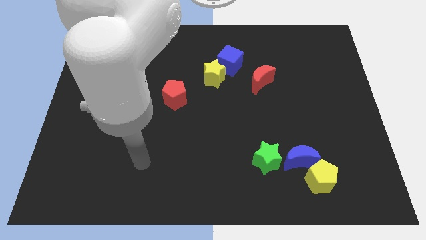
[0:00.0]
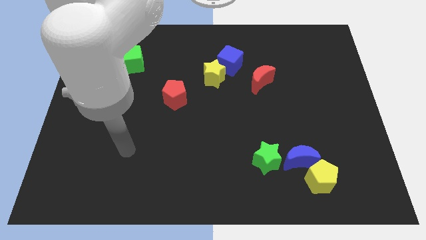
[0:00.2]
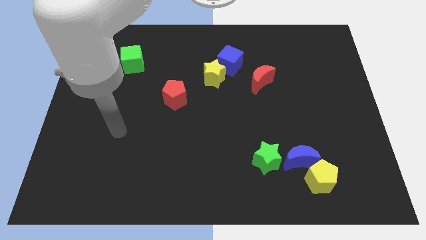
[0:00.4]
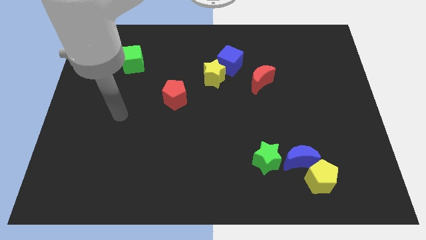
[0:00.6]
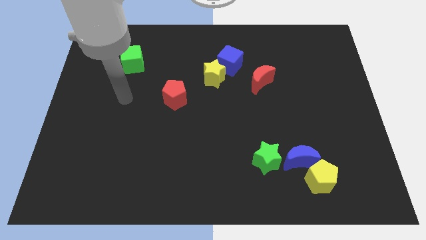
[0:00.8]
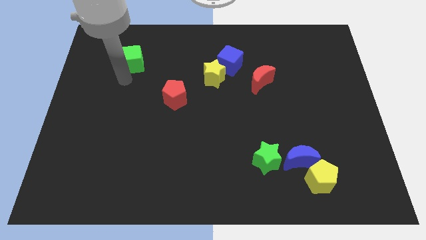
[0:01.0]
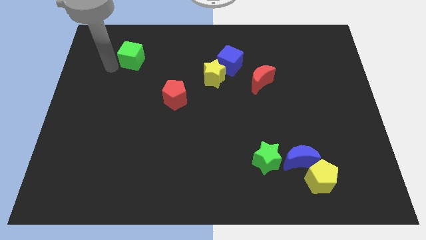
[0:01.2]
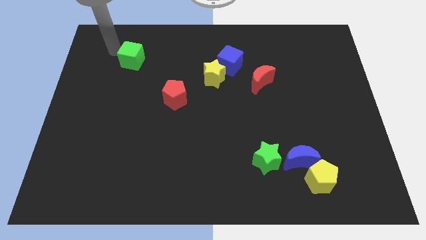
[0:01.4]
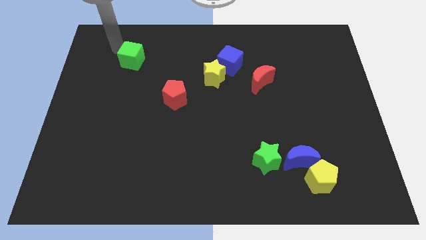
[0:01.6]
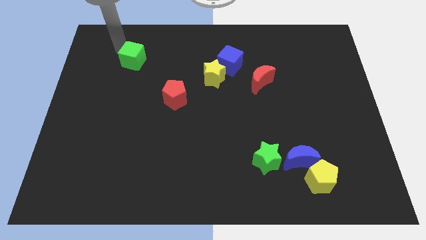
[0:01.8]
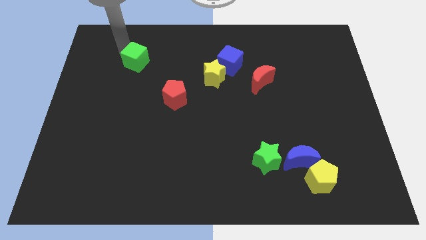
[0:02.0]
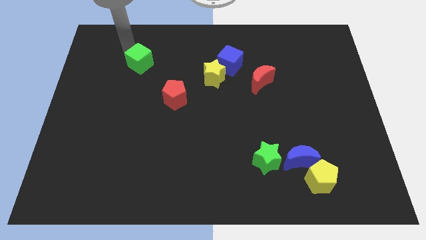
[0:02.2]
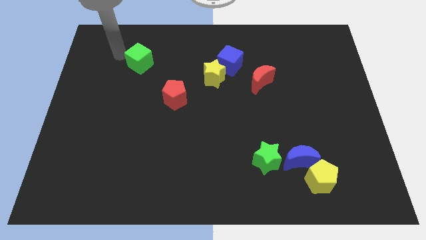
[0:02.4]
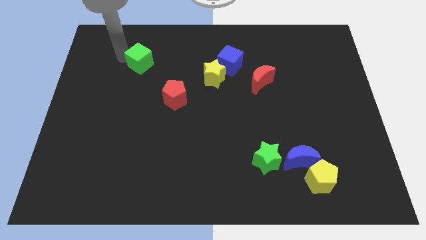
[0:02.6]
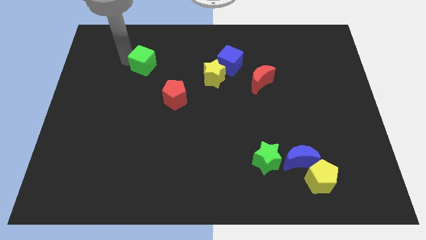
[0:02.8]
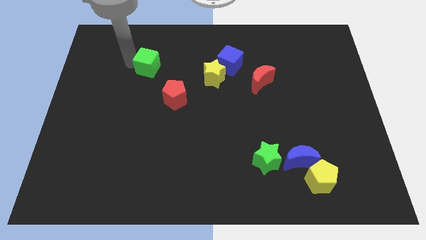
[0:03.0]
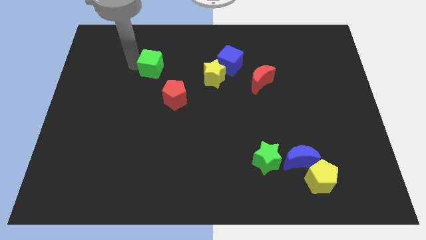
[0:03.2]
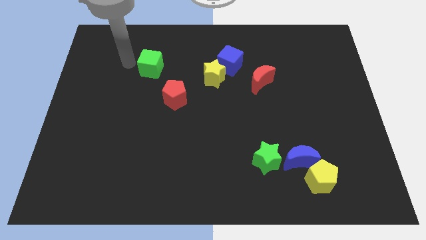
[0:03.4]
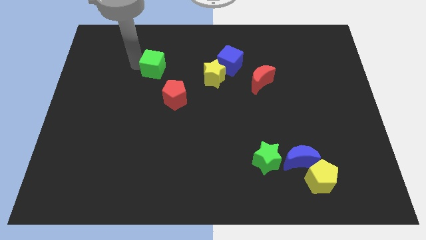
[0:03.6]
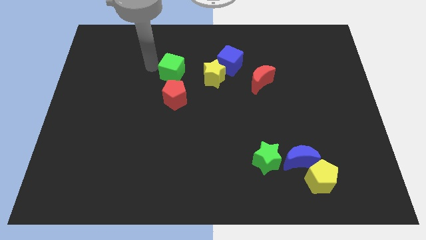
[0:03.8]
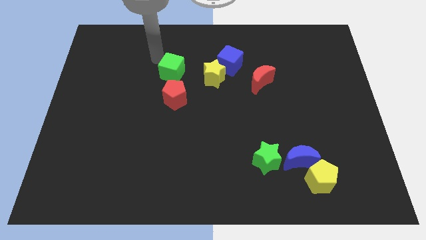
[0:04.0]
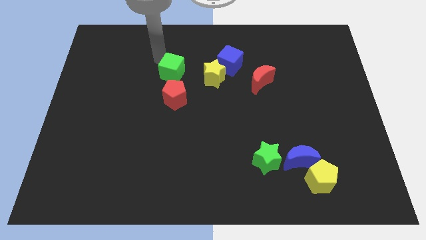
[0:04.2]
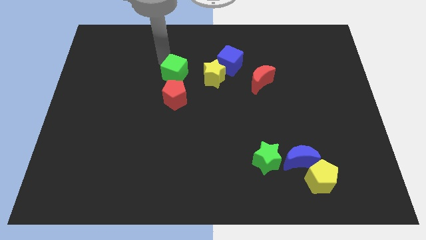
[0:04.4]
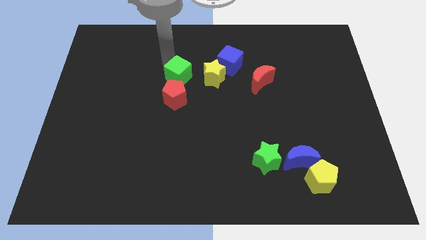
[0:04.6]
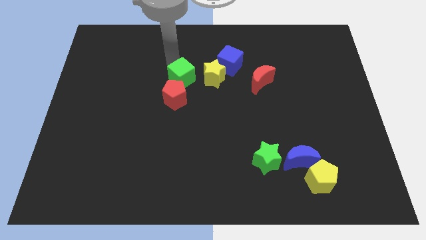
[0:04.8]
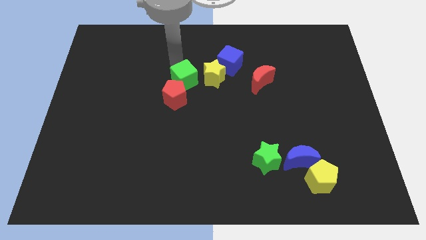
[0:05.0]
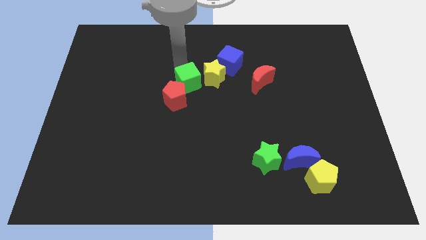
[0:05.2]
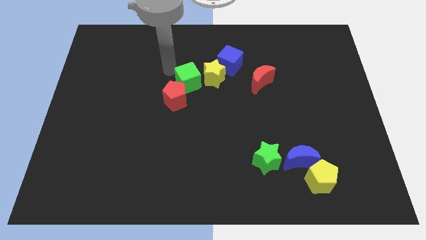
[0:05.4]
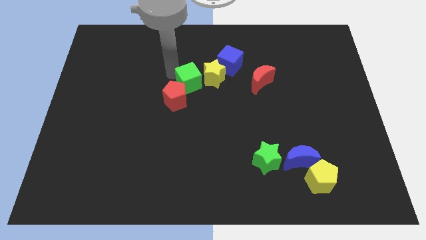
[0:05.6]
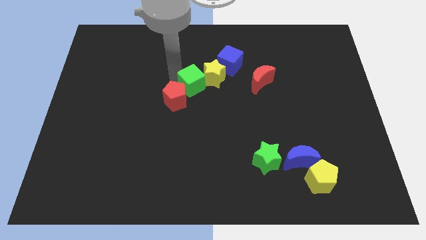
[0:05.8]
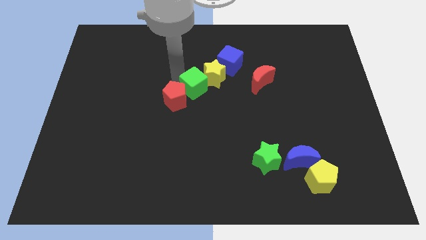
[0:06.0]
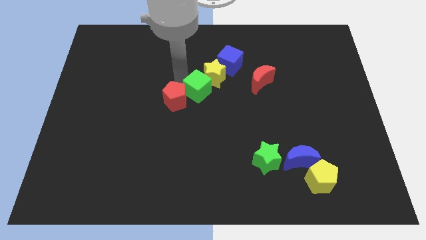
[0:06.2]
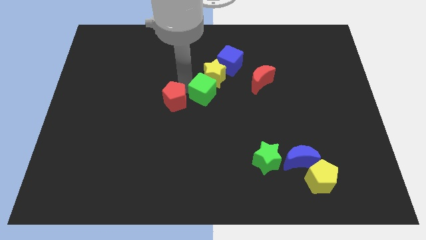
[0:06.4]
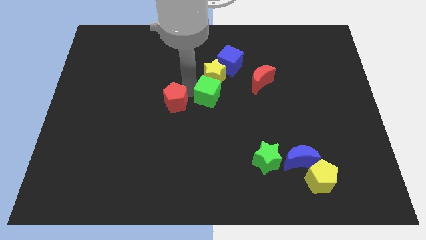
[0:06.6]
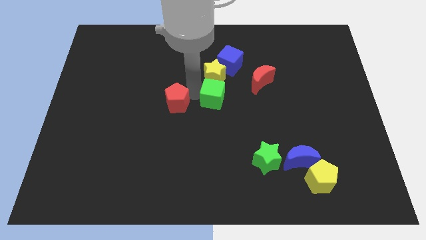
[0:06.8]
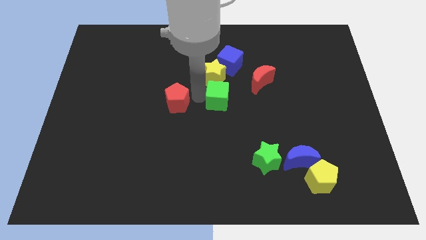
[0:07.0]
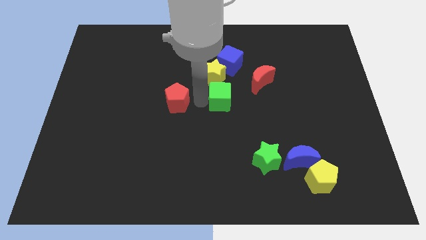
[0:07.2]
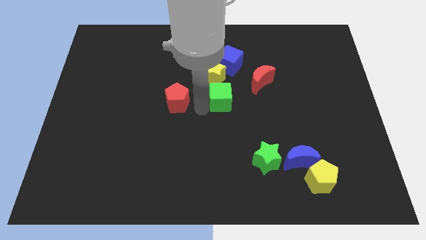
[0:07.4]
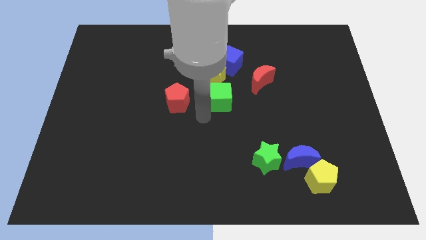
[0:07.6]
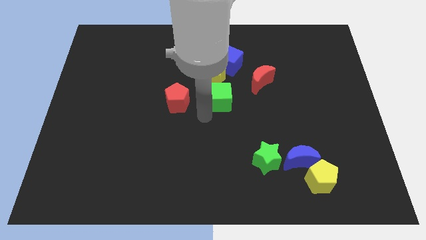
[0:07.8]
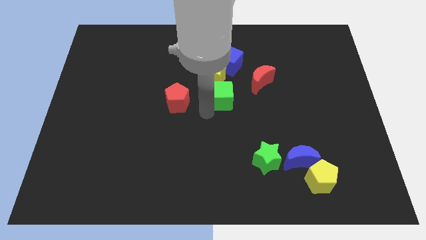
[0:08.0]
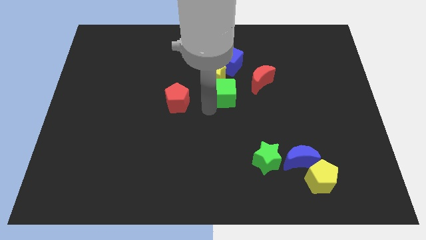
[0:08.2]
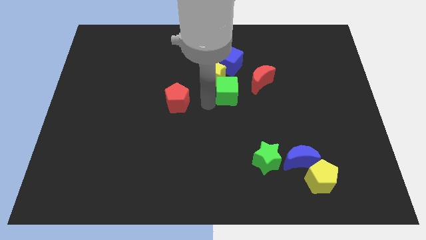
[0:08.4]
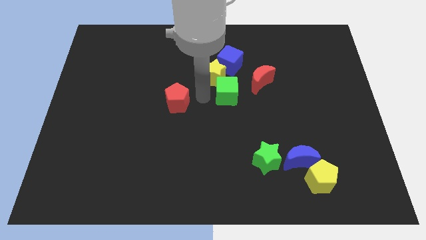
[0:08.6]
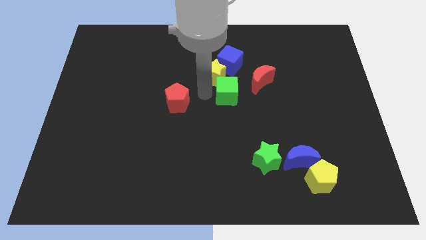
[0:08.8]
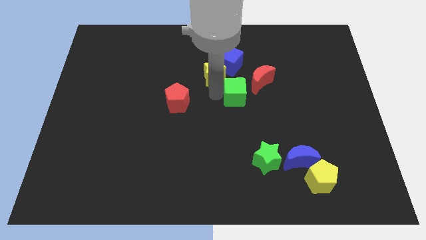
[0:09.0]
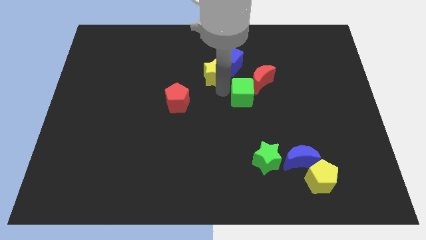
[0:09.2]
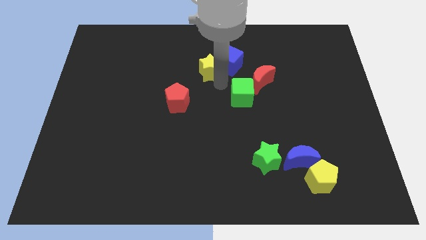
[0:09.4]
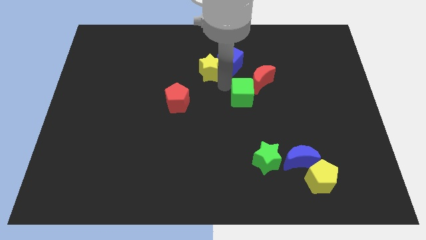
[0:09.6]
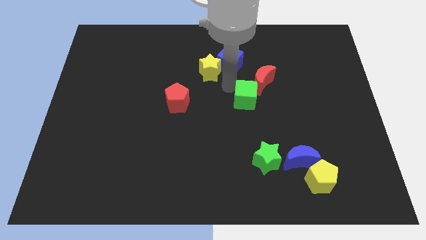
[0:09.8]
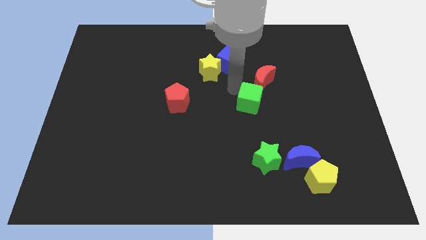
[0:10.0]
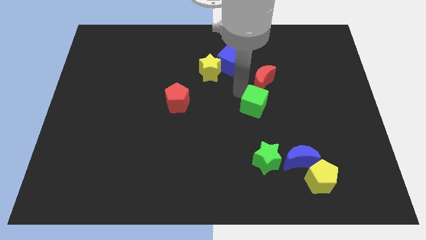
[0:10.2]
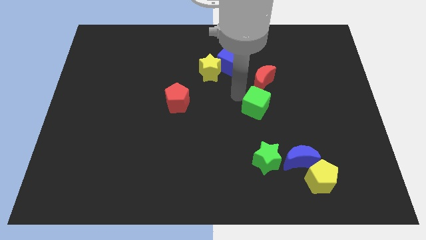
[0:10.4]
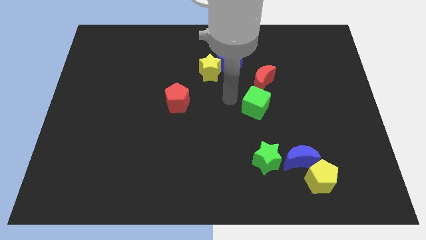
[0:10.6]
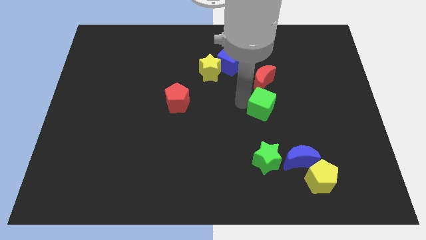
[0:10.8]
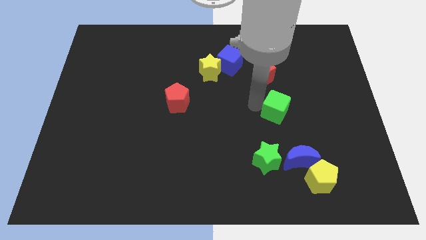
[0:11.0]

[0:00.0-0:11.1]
move the green cube to the top of the blue moon

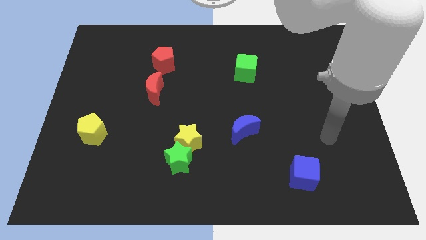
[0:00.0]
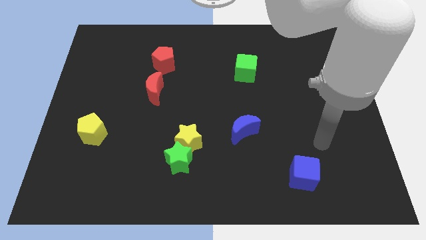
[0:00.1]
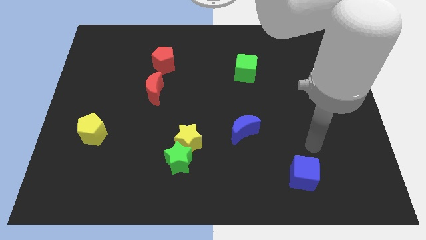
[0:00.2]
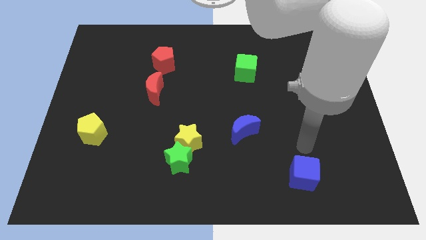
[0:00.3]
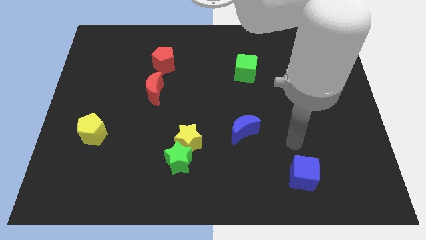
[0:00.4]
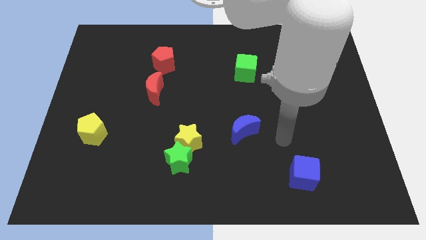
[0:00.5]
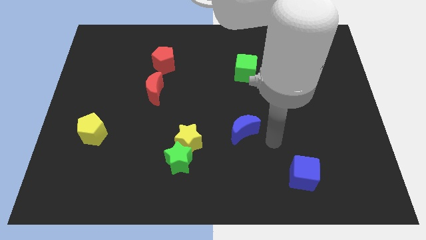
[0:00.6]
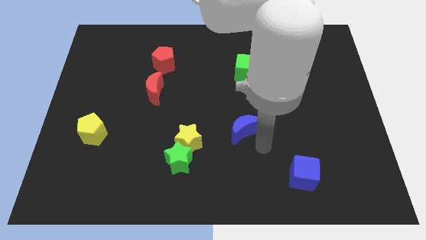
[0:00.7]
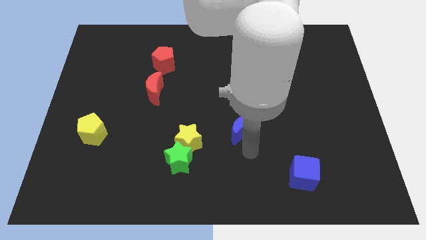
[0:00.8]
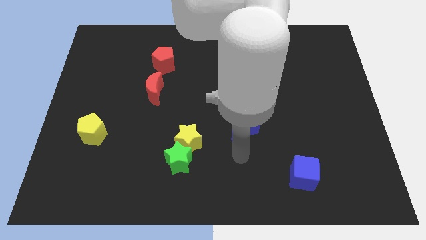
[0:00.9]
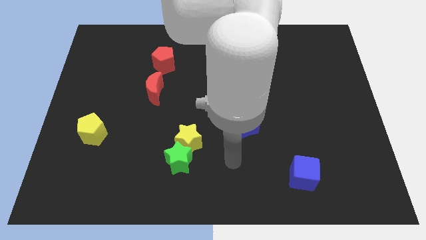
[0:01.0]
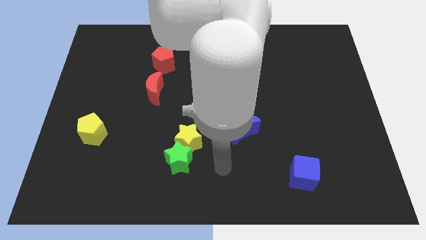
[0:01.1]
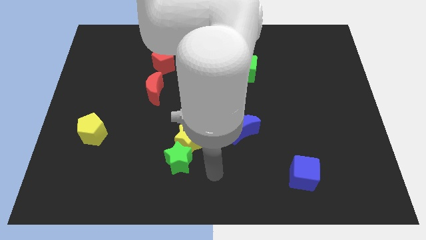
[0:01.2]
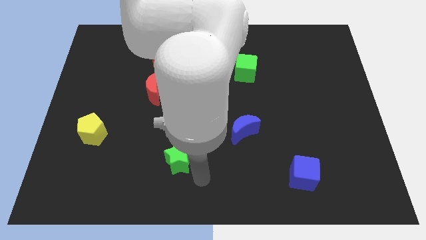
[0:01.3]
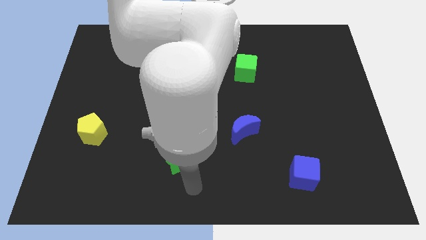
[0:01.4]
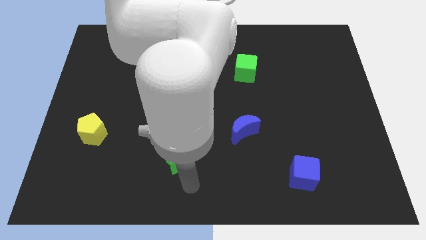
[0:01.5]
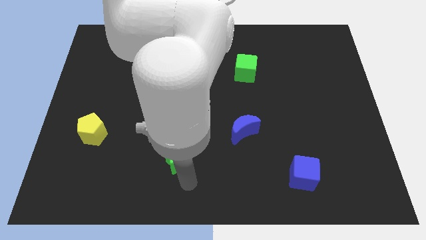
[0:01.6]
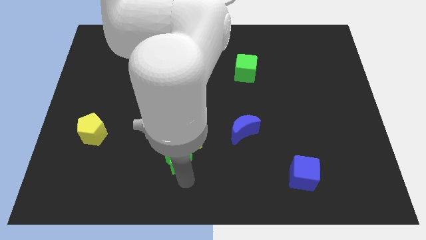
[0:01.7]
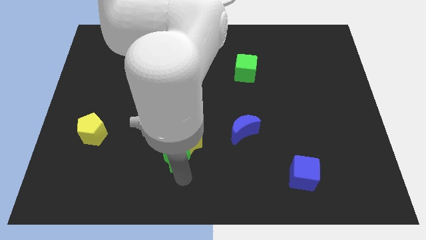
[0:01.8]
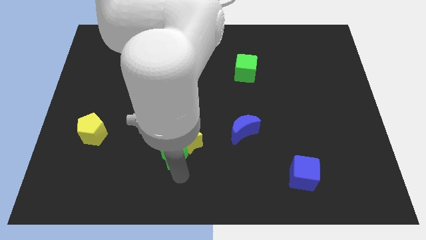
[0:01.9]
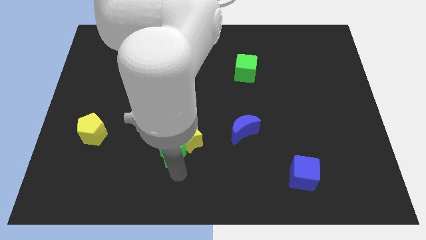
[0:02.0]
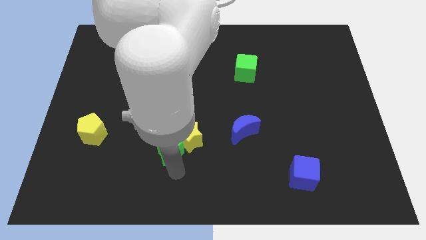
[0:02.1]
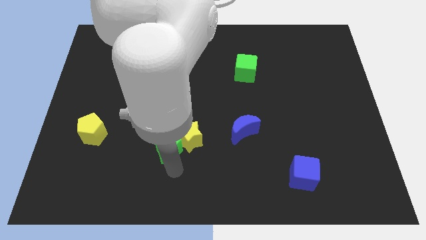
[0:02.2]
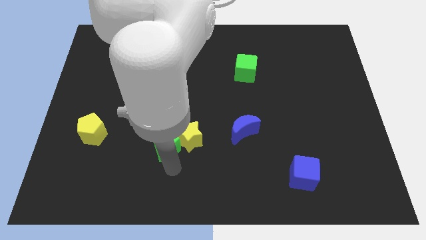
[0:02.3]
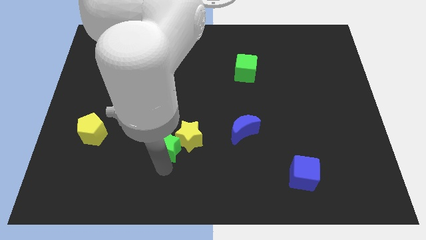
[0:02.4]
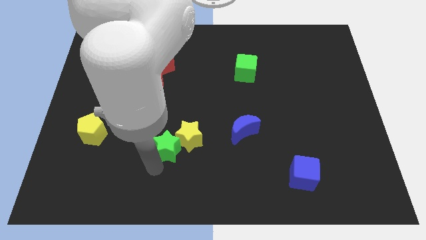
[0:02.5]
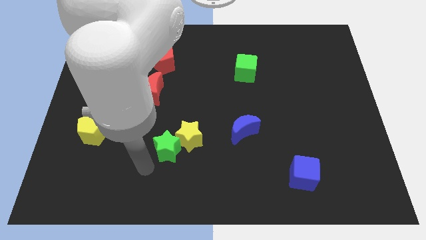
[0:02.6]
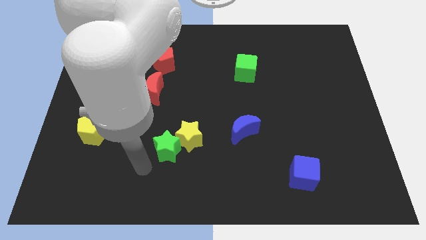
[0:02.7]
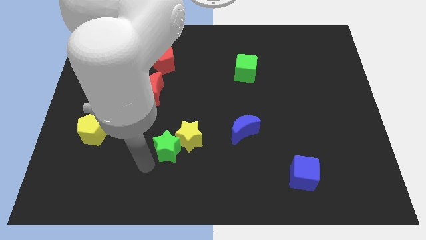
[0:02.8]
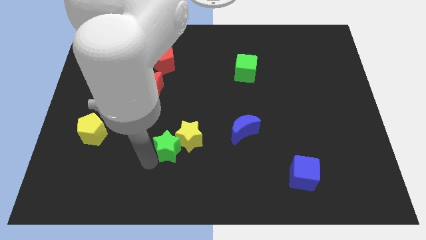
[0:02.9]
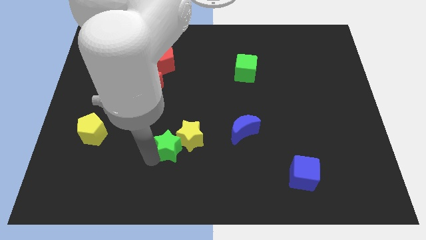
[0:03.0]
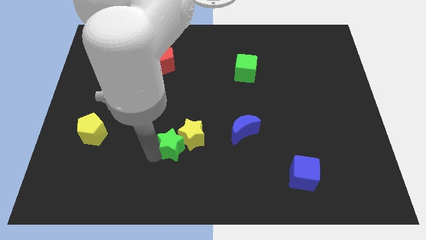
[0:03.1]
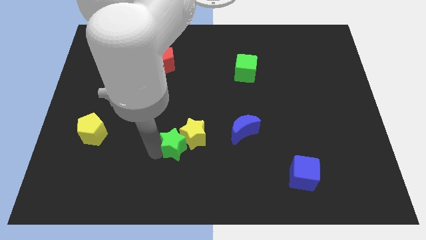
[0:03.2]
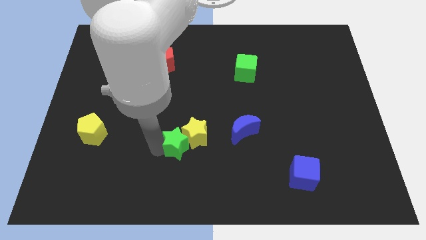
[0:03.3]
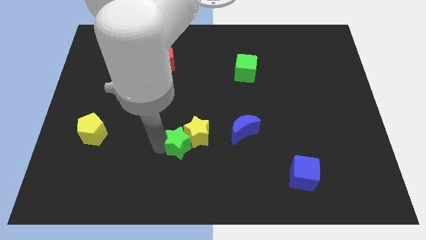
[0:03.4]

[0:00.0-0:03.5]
push the green star to the left of the blue moon
